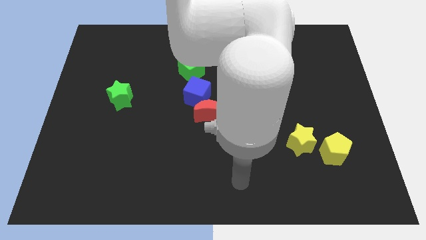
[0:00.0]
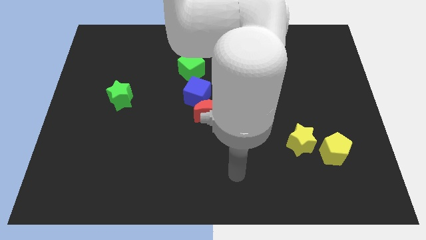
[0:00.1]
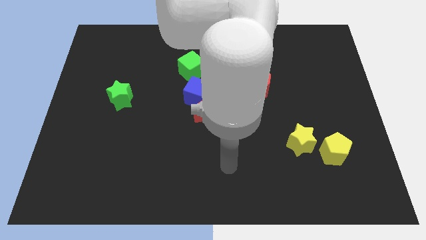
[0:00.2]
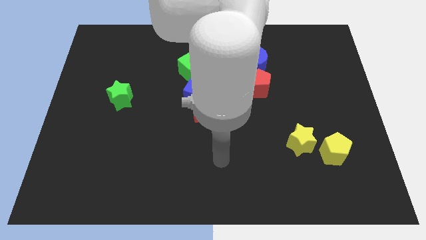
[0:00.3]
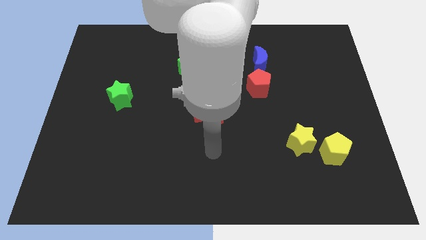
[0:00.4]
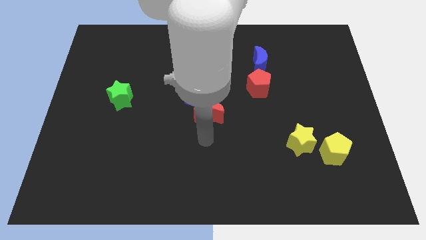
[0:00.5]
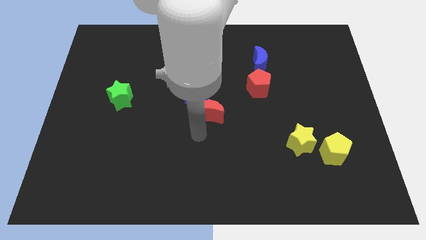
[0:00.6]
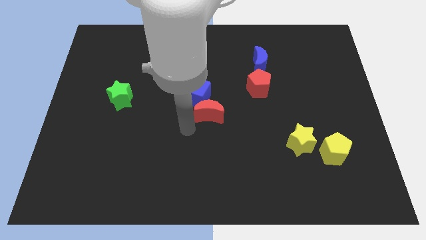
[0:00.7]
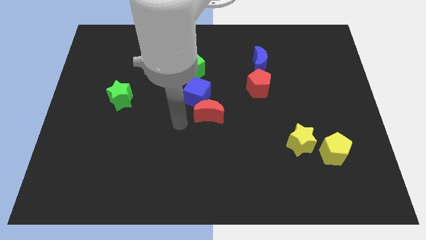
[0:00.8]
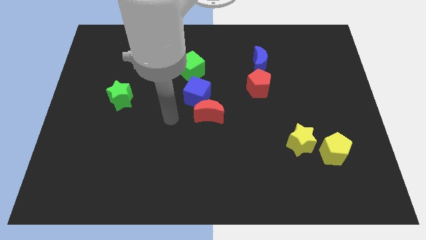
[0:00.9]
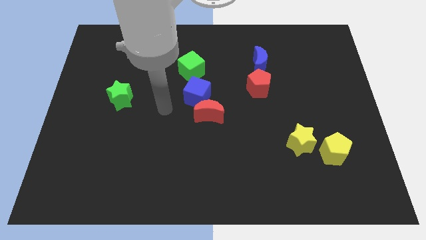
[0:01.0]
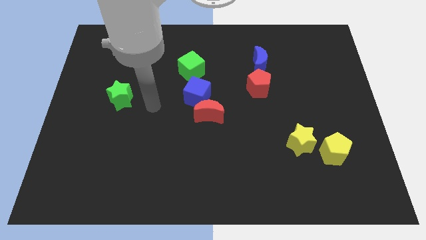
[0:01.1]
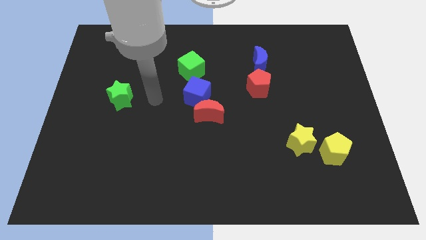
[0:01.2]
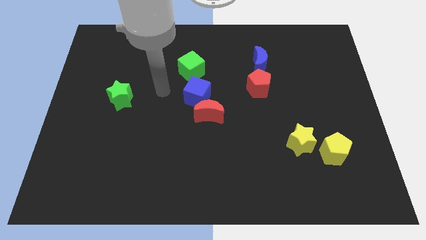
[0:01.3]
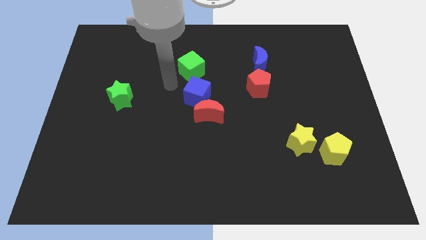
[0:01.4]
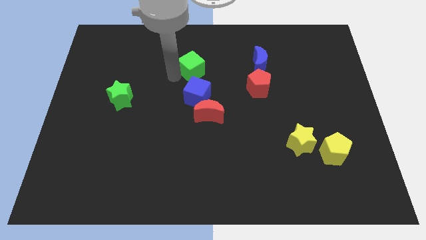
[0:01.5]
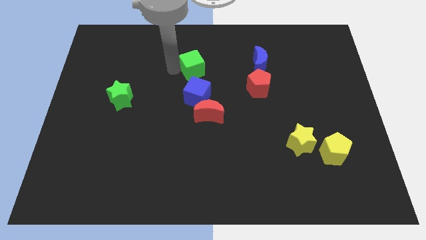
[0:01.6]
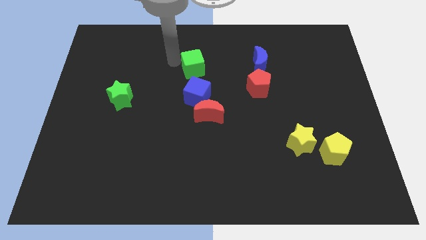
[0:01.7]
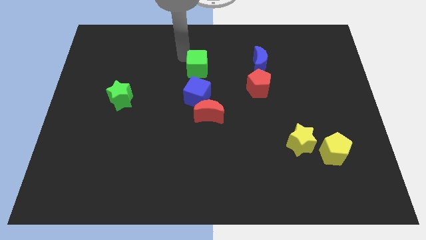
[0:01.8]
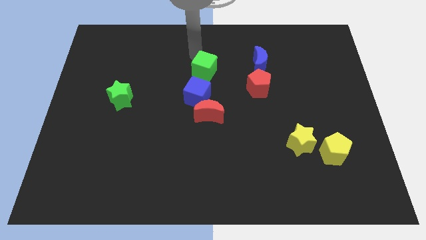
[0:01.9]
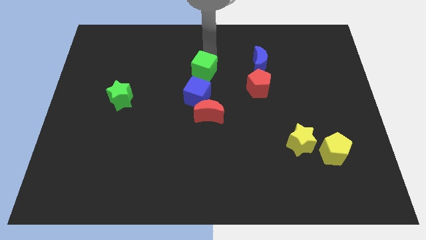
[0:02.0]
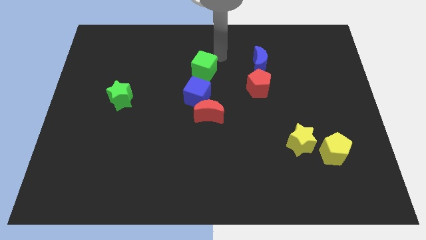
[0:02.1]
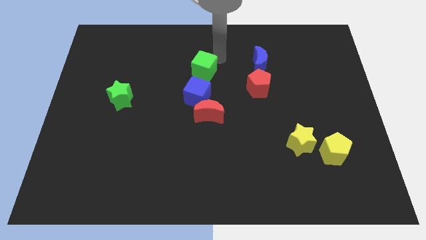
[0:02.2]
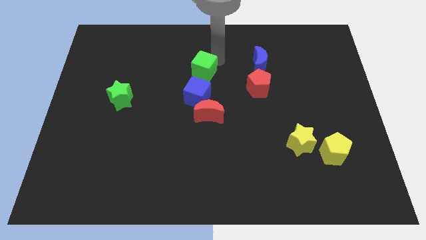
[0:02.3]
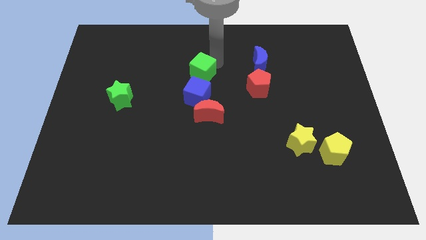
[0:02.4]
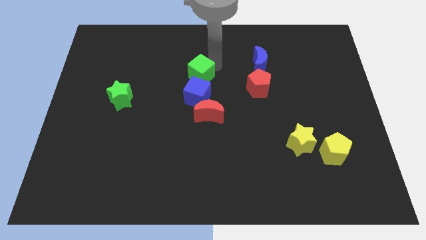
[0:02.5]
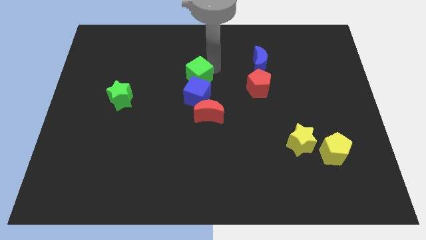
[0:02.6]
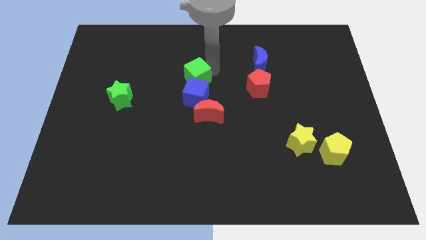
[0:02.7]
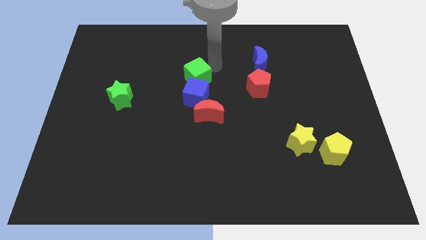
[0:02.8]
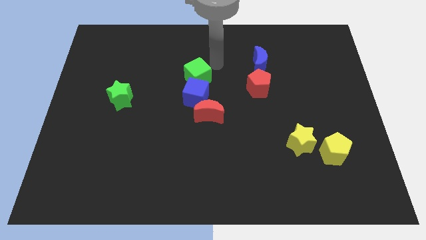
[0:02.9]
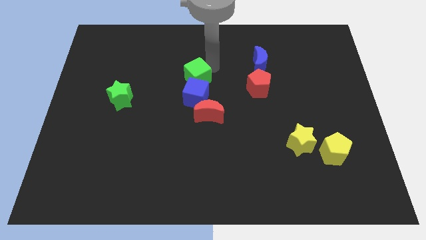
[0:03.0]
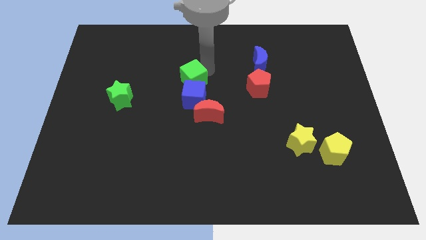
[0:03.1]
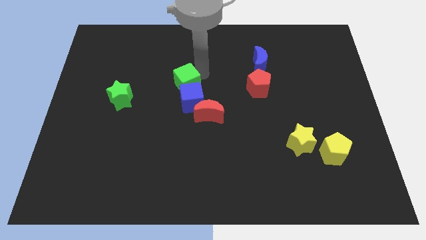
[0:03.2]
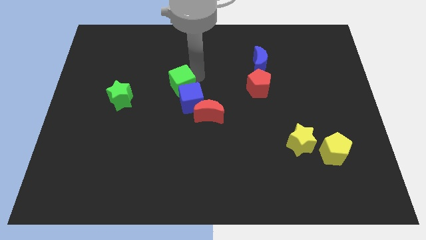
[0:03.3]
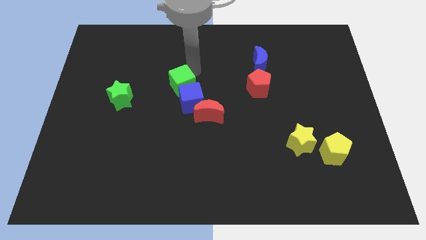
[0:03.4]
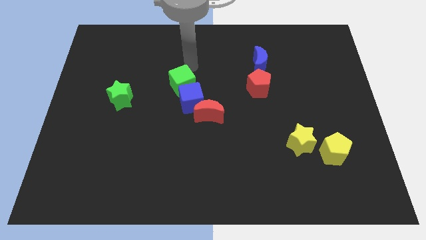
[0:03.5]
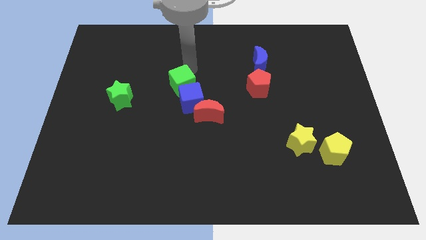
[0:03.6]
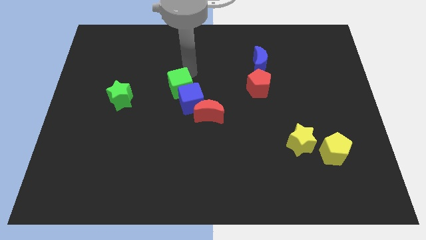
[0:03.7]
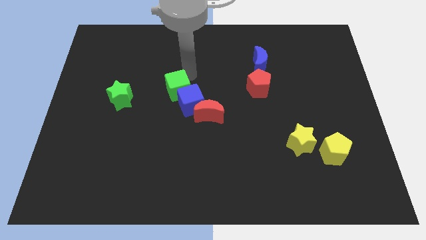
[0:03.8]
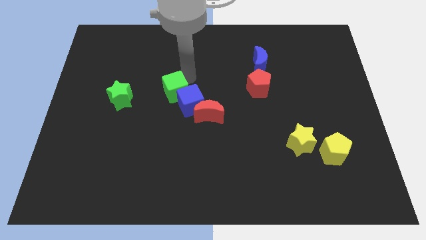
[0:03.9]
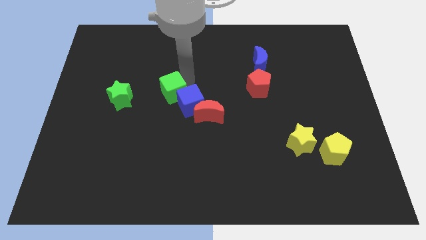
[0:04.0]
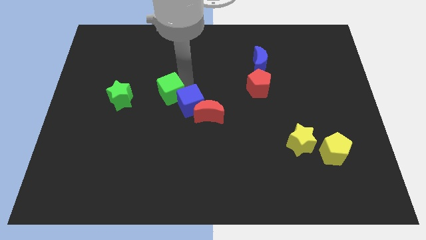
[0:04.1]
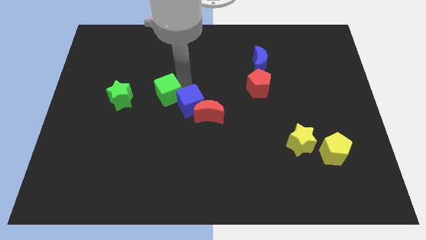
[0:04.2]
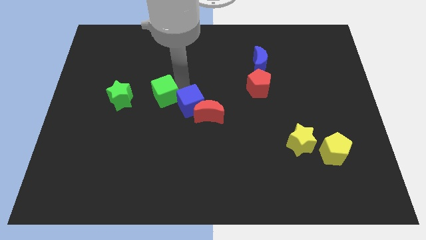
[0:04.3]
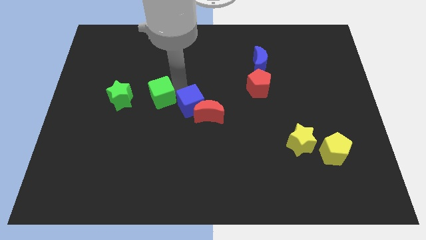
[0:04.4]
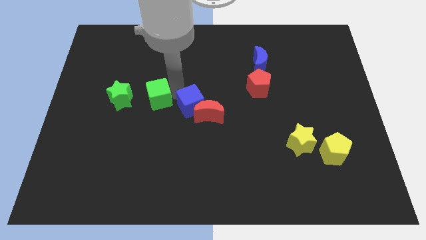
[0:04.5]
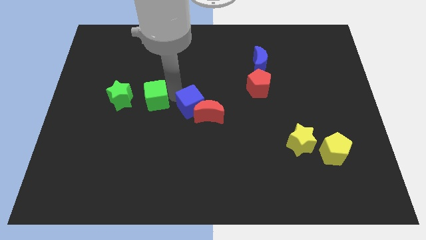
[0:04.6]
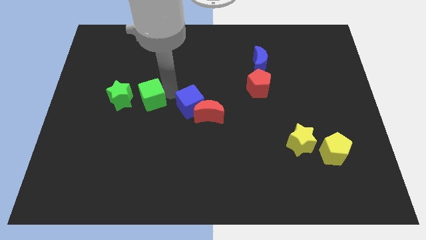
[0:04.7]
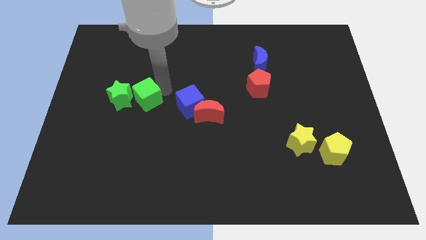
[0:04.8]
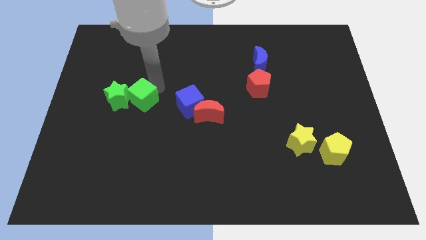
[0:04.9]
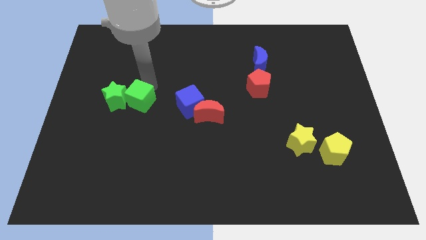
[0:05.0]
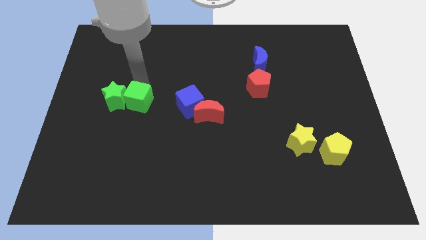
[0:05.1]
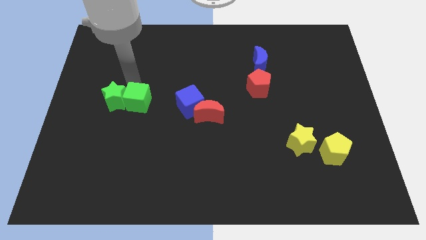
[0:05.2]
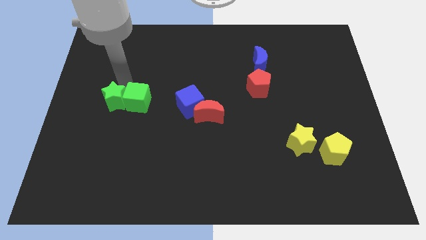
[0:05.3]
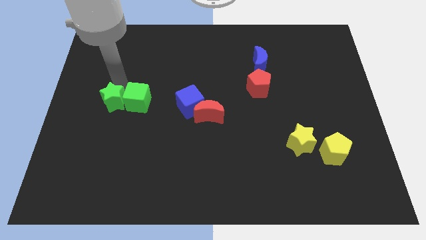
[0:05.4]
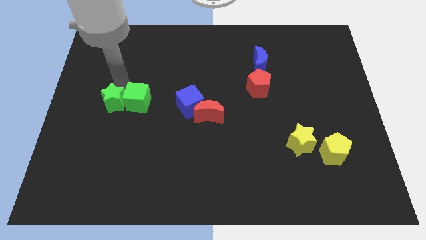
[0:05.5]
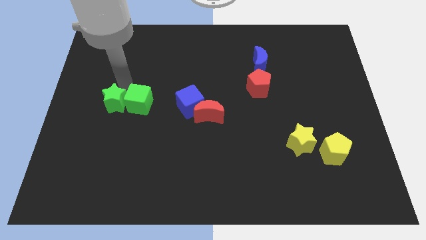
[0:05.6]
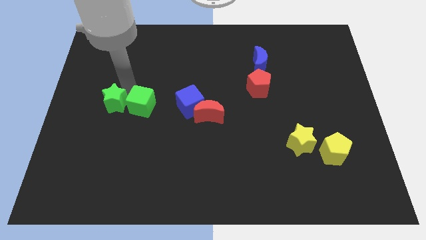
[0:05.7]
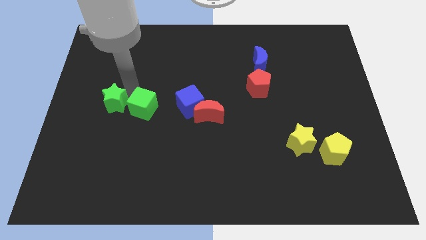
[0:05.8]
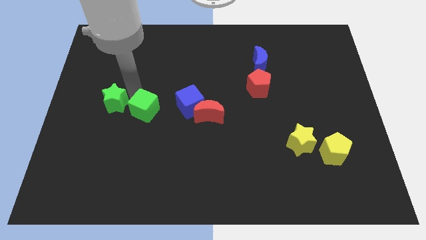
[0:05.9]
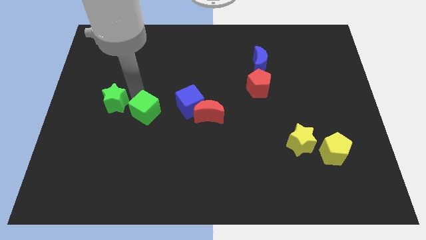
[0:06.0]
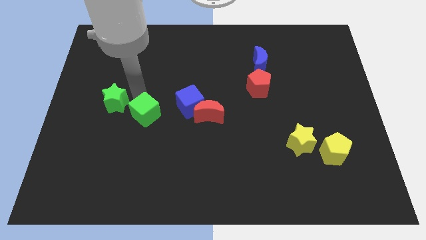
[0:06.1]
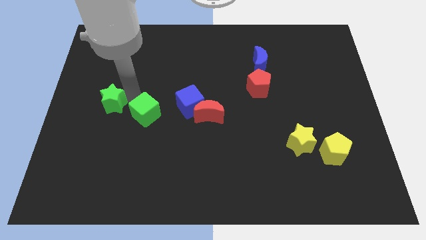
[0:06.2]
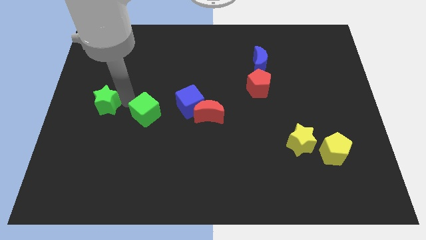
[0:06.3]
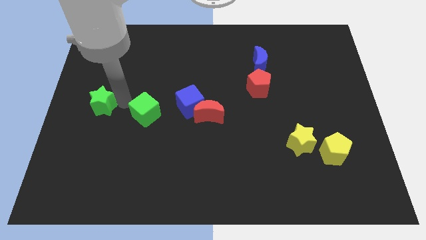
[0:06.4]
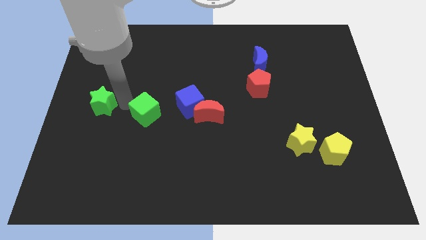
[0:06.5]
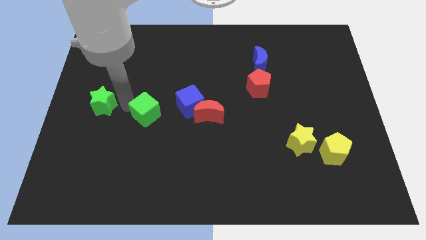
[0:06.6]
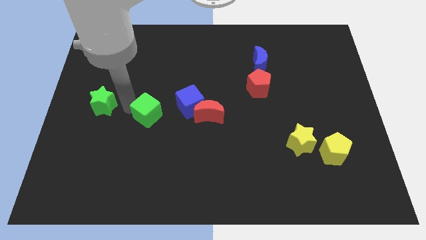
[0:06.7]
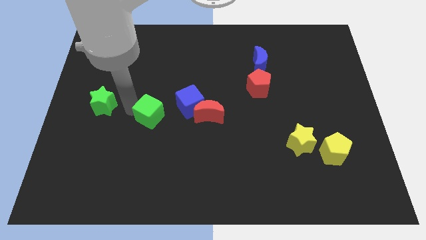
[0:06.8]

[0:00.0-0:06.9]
push the green cube to the bottom left of the blue cube

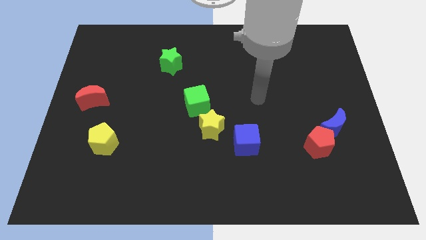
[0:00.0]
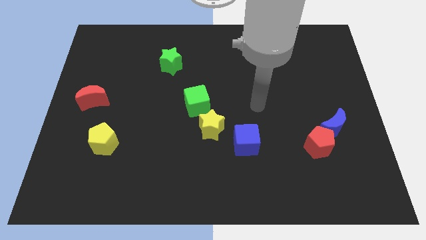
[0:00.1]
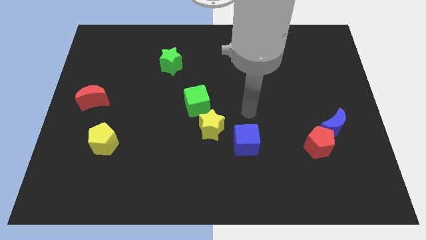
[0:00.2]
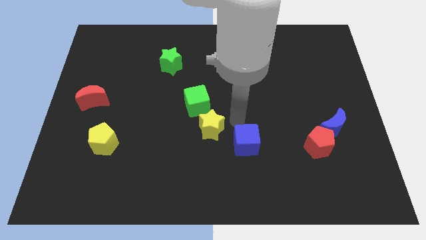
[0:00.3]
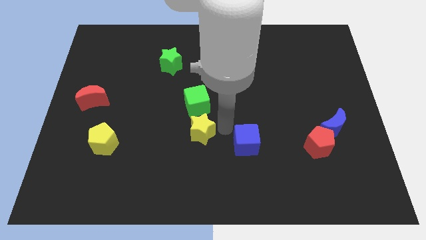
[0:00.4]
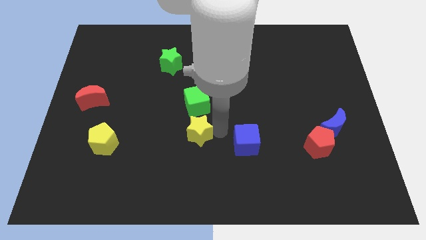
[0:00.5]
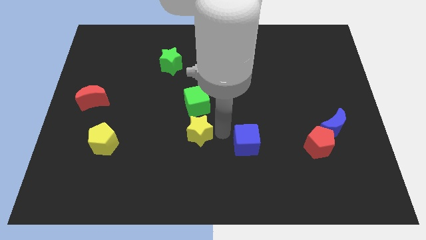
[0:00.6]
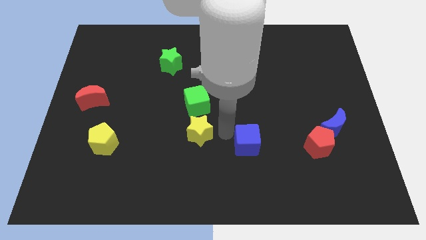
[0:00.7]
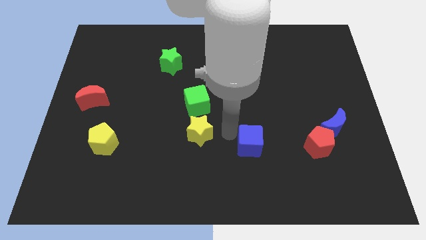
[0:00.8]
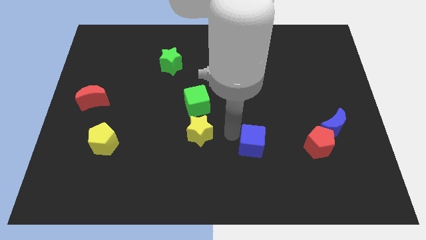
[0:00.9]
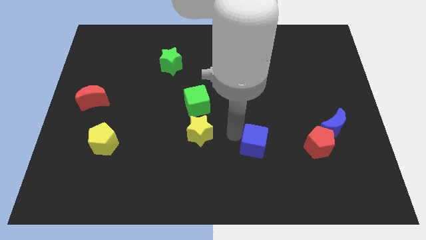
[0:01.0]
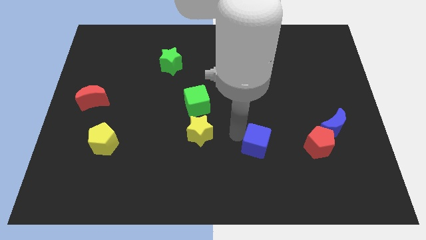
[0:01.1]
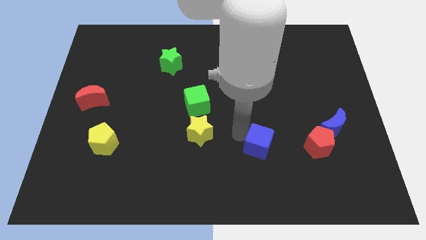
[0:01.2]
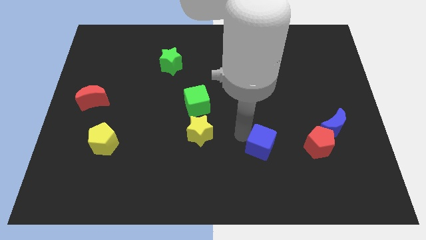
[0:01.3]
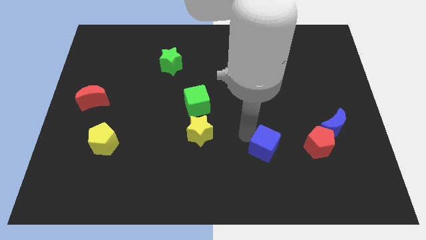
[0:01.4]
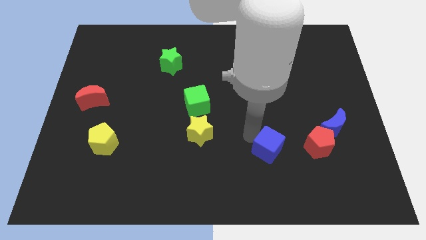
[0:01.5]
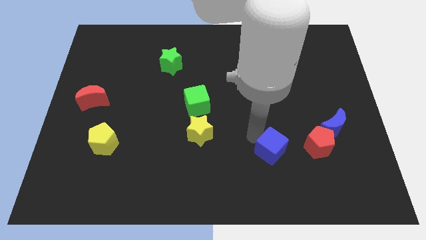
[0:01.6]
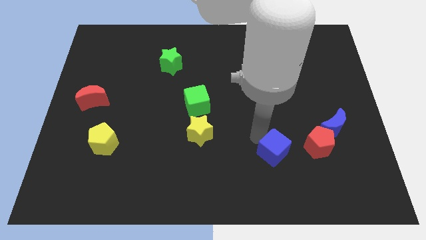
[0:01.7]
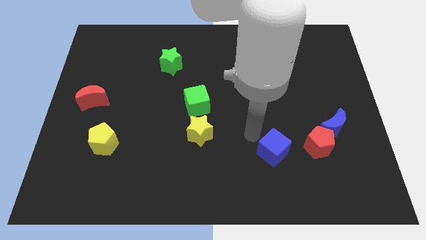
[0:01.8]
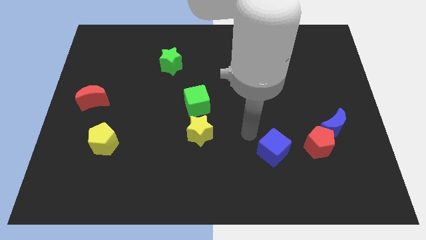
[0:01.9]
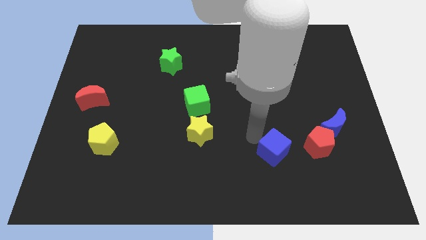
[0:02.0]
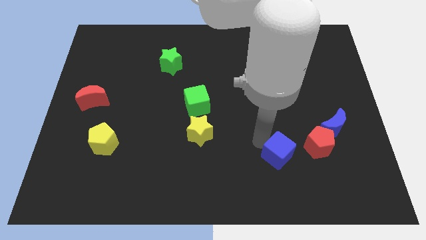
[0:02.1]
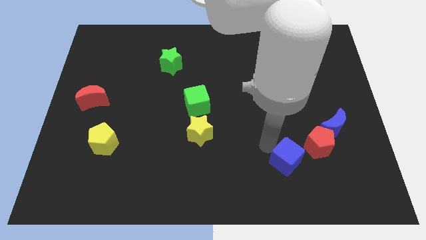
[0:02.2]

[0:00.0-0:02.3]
slide the blue cube diagonally down and to the left of the red pentagon
